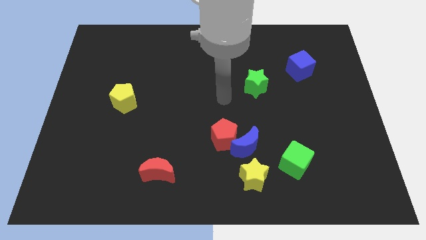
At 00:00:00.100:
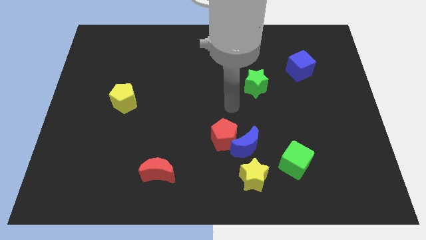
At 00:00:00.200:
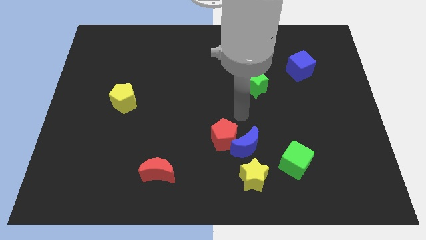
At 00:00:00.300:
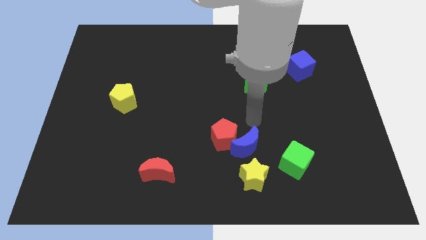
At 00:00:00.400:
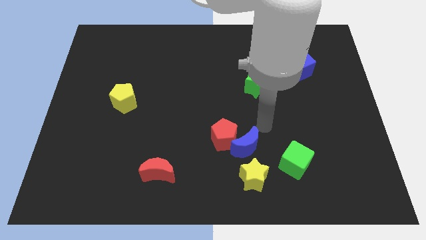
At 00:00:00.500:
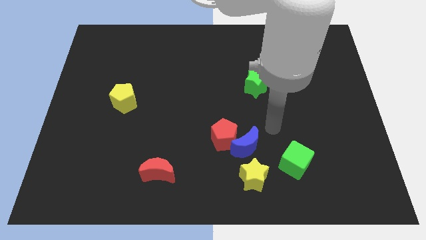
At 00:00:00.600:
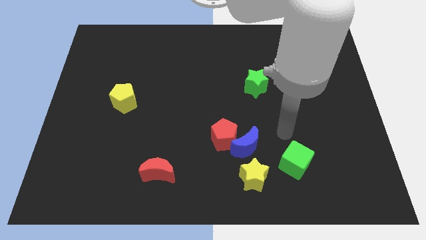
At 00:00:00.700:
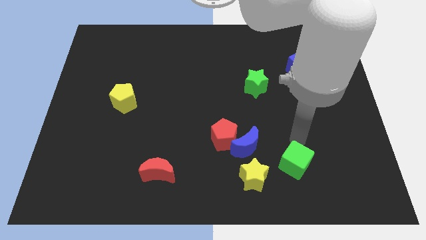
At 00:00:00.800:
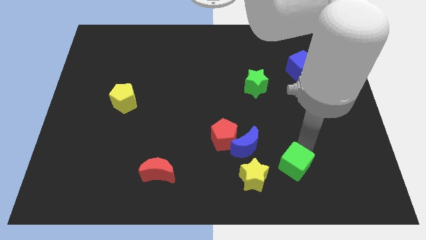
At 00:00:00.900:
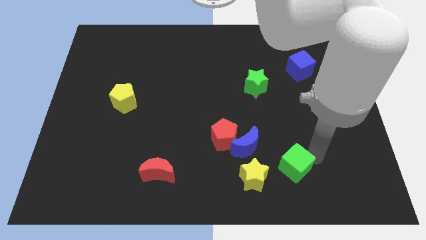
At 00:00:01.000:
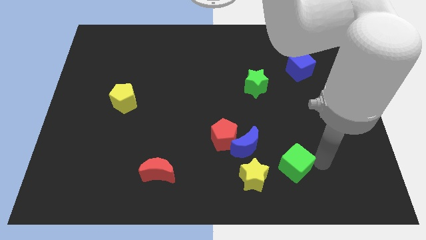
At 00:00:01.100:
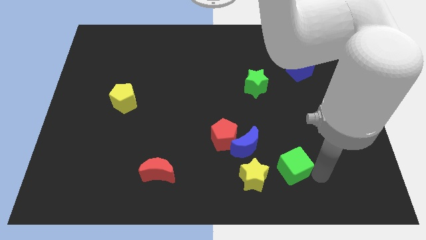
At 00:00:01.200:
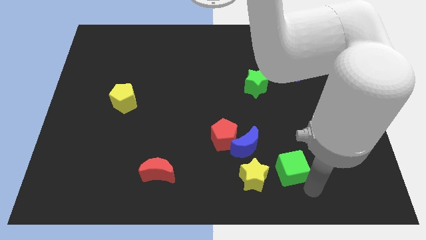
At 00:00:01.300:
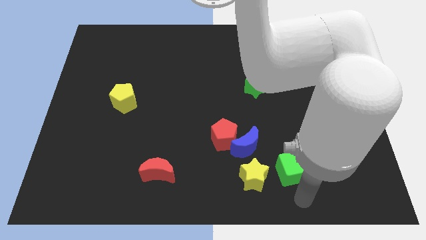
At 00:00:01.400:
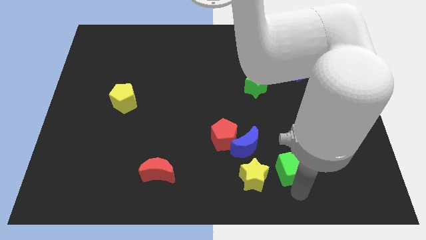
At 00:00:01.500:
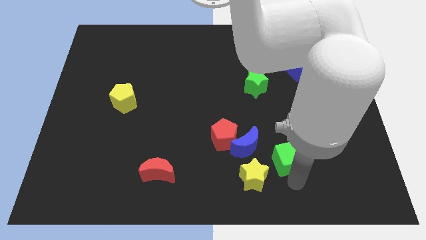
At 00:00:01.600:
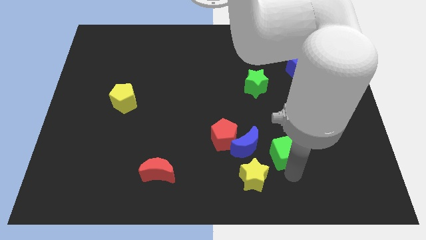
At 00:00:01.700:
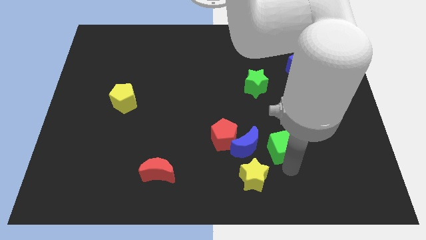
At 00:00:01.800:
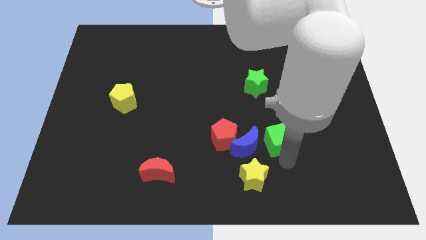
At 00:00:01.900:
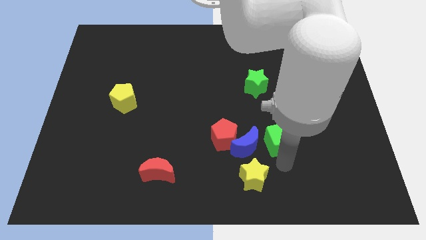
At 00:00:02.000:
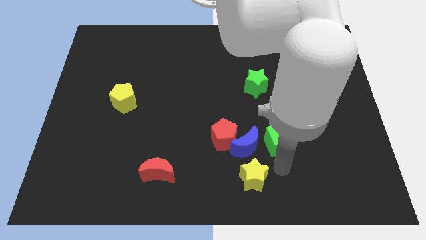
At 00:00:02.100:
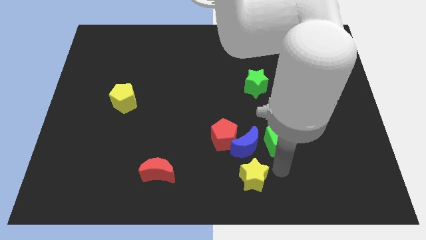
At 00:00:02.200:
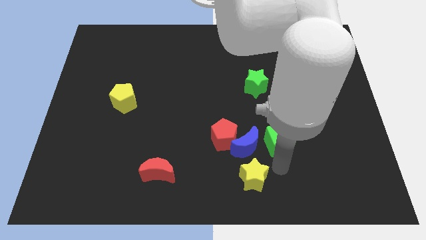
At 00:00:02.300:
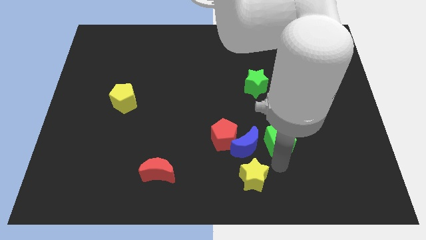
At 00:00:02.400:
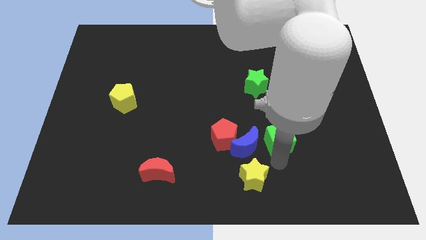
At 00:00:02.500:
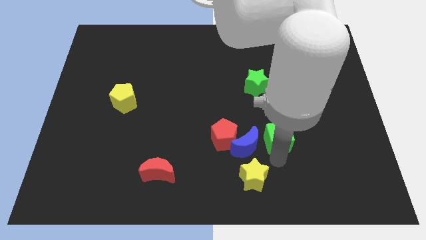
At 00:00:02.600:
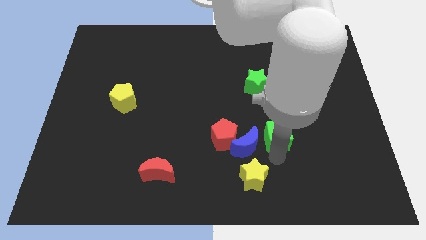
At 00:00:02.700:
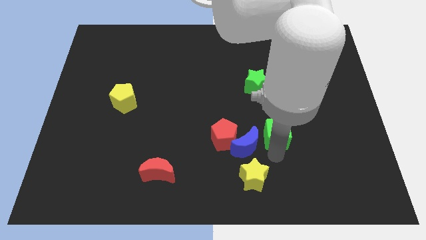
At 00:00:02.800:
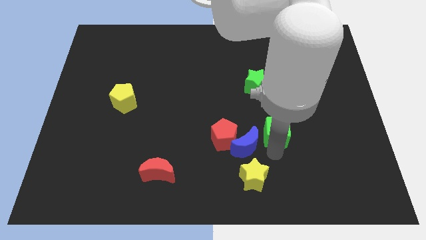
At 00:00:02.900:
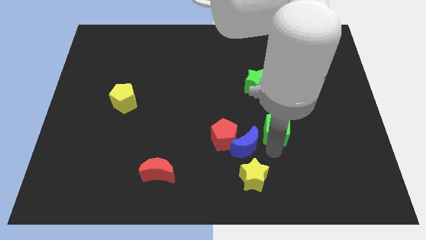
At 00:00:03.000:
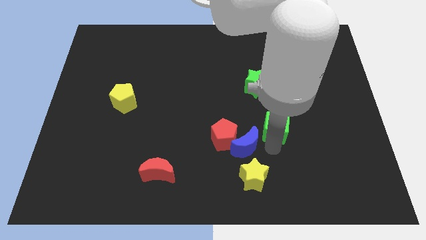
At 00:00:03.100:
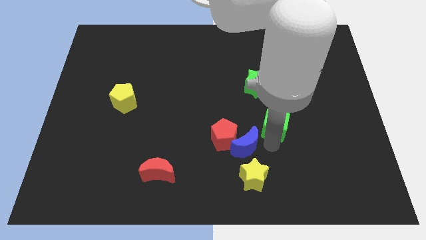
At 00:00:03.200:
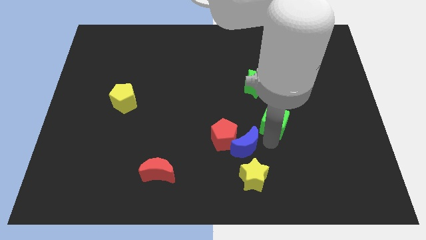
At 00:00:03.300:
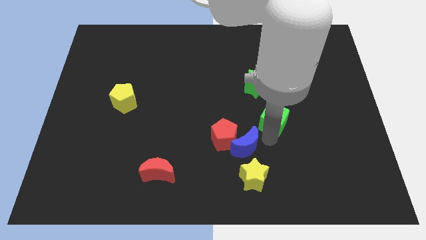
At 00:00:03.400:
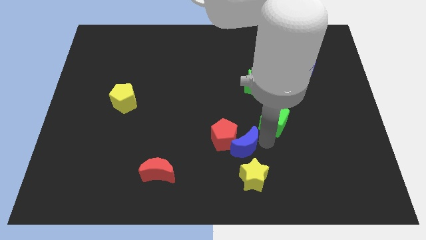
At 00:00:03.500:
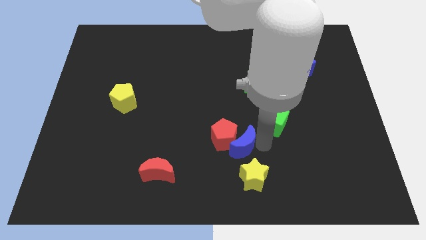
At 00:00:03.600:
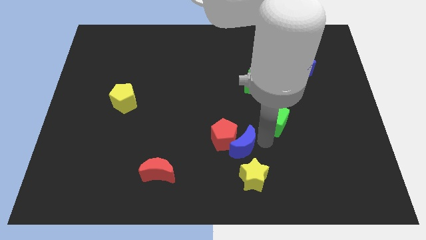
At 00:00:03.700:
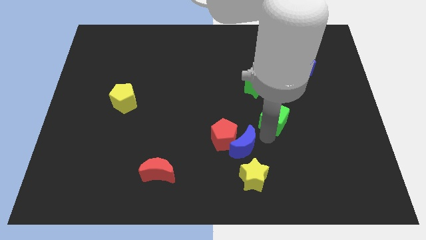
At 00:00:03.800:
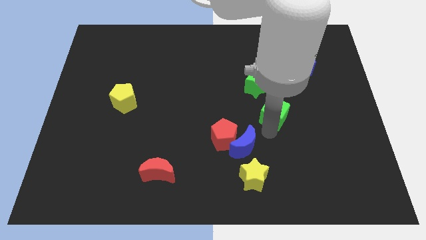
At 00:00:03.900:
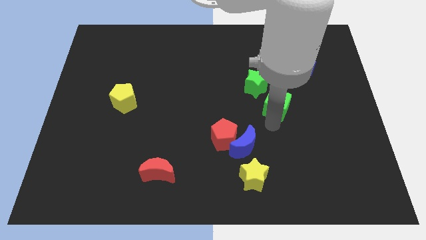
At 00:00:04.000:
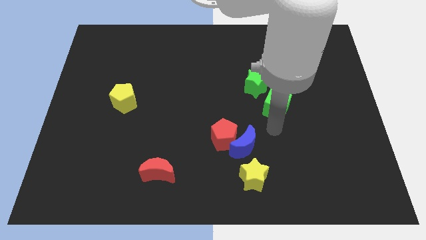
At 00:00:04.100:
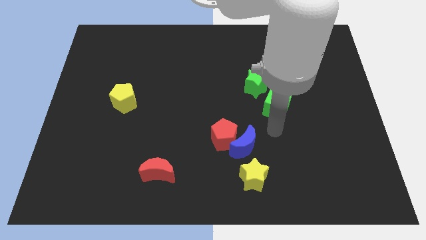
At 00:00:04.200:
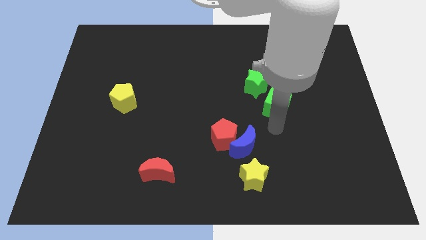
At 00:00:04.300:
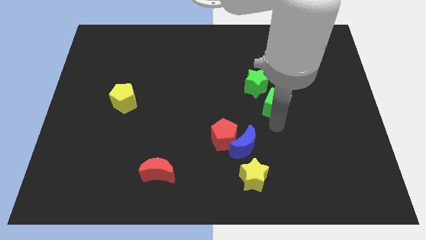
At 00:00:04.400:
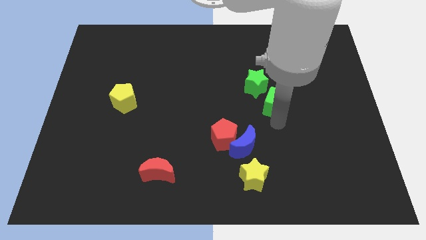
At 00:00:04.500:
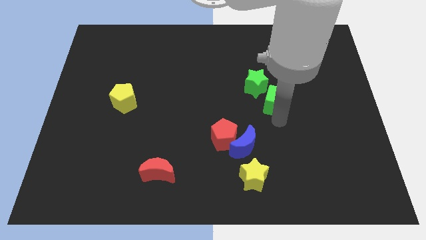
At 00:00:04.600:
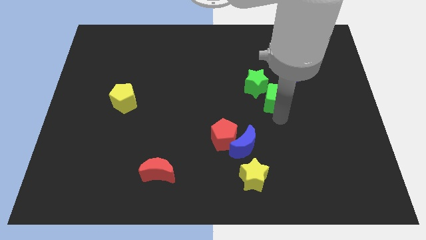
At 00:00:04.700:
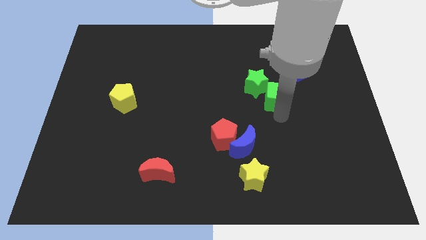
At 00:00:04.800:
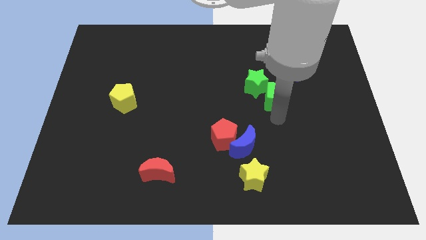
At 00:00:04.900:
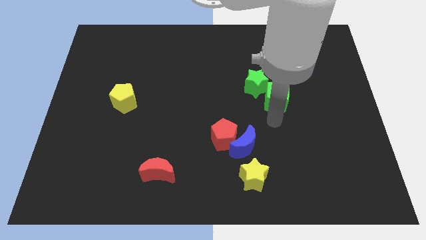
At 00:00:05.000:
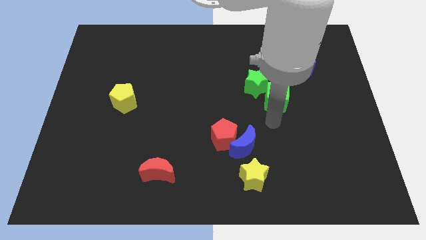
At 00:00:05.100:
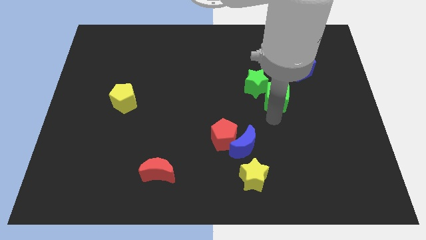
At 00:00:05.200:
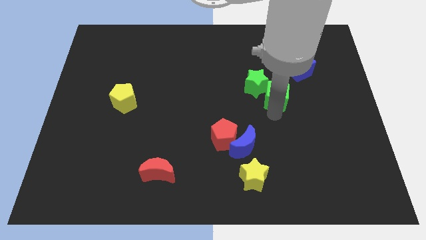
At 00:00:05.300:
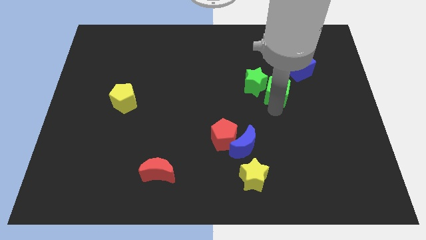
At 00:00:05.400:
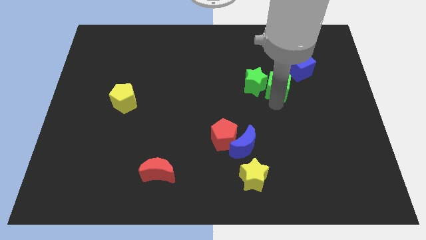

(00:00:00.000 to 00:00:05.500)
move the green cube upwards

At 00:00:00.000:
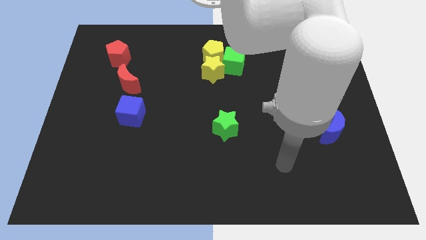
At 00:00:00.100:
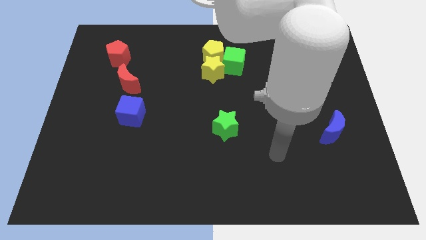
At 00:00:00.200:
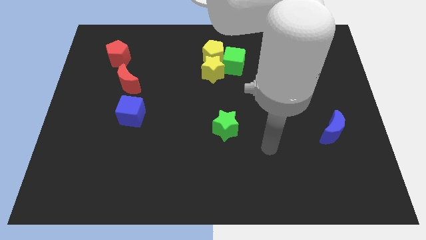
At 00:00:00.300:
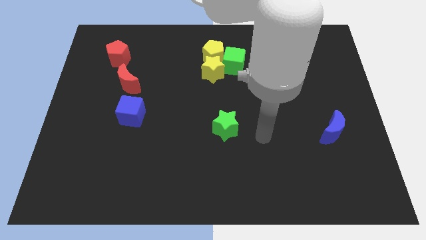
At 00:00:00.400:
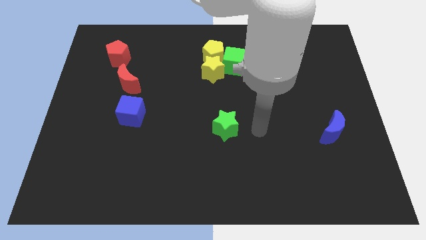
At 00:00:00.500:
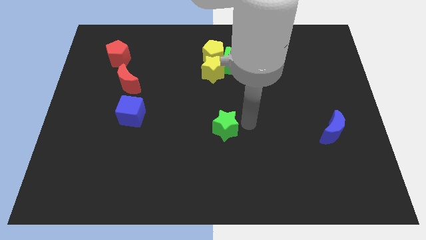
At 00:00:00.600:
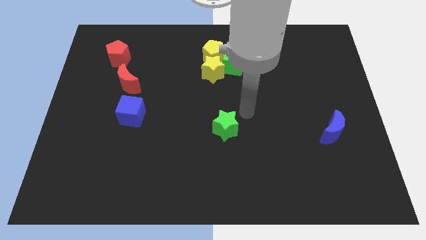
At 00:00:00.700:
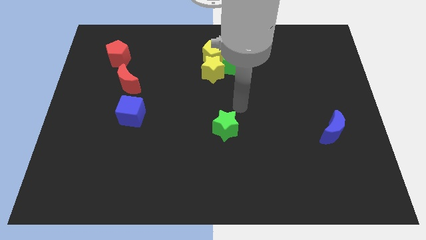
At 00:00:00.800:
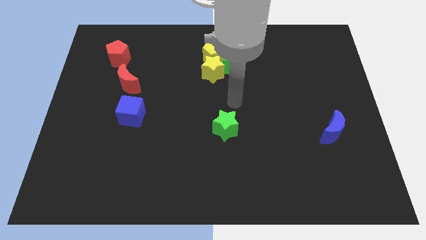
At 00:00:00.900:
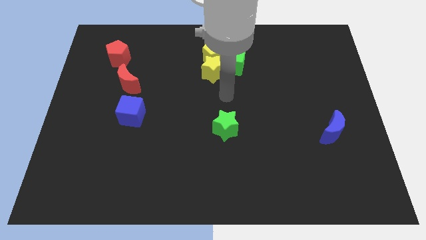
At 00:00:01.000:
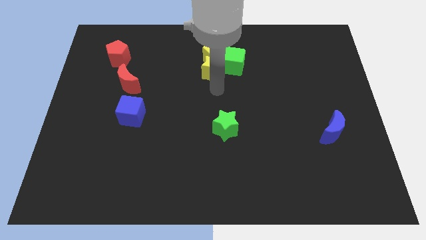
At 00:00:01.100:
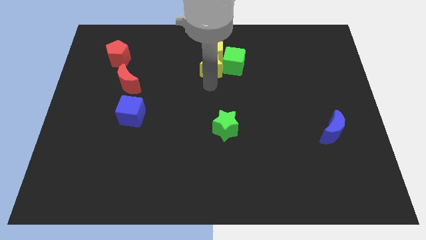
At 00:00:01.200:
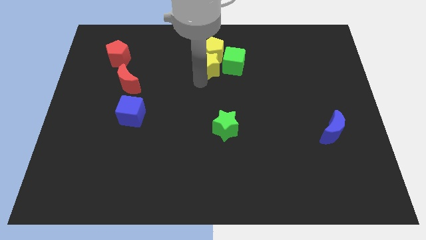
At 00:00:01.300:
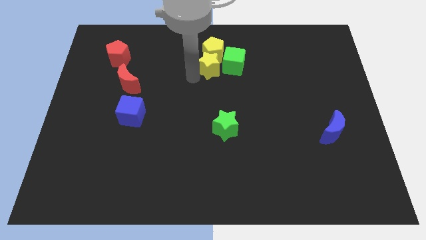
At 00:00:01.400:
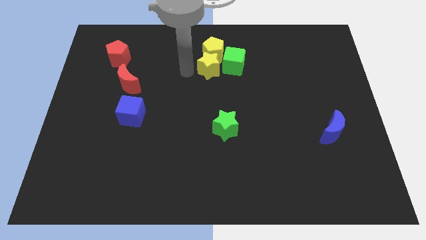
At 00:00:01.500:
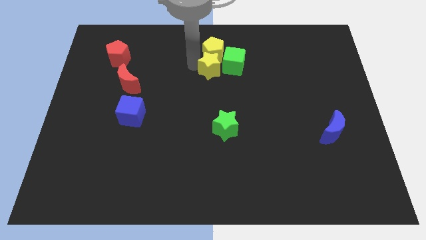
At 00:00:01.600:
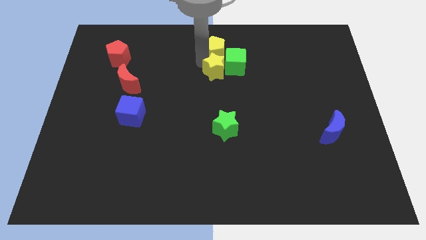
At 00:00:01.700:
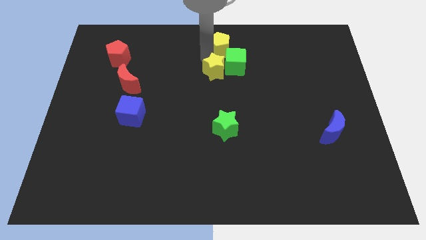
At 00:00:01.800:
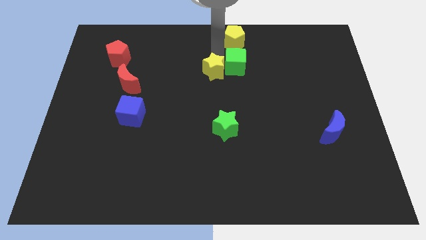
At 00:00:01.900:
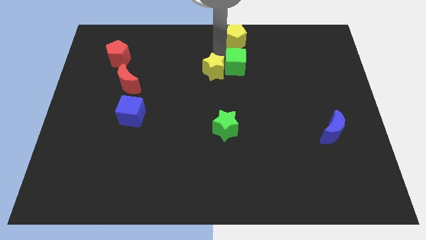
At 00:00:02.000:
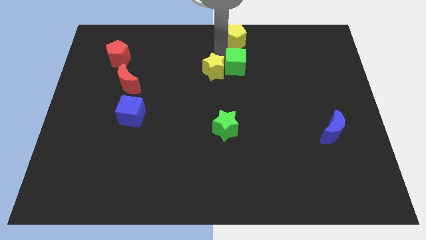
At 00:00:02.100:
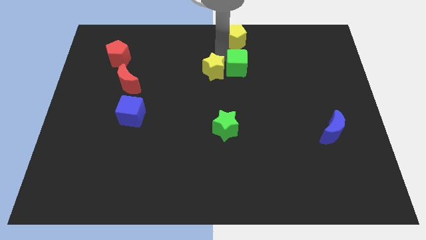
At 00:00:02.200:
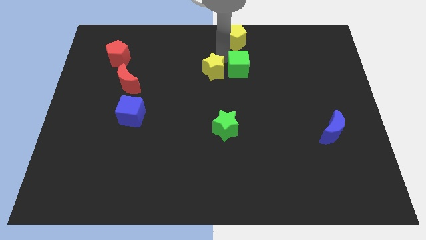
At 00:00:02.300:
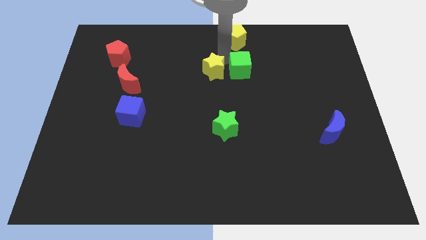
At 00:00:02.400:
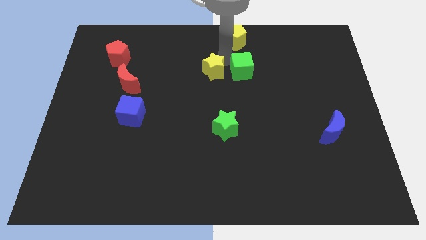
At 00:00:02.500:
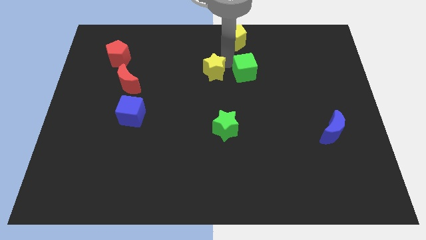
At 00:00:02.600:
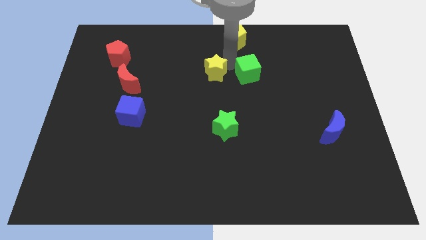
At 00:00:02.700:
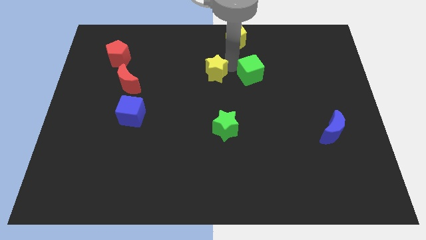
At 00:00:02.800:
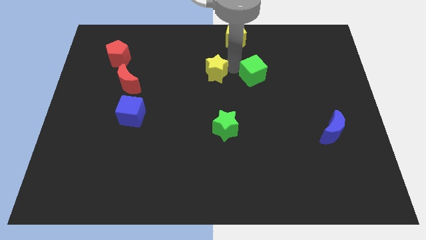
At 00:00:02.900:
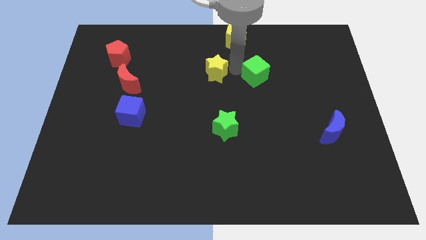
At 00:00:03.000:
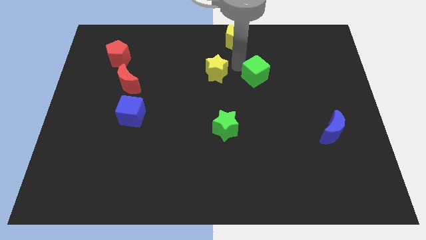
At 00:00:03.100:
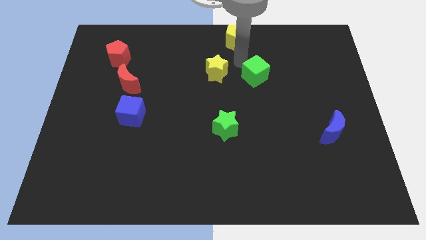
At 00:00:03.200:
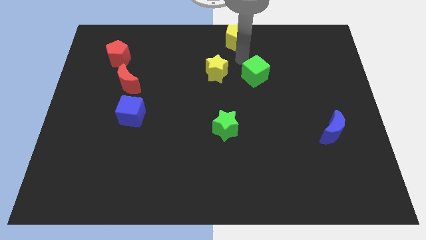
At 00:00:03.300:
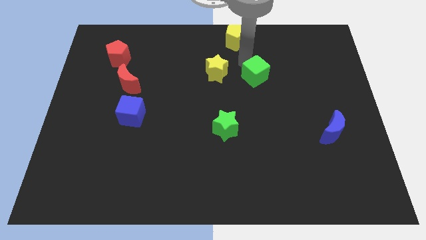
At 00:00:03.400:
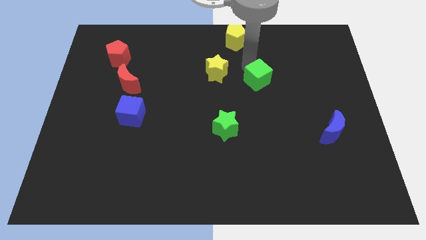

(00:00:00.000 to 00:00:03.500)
slide the green cube diagonally downwards and right a little
